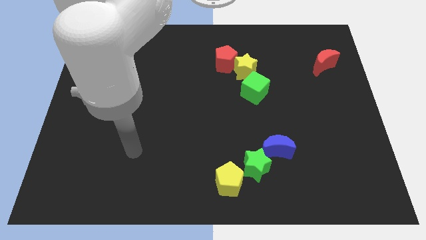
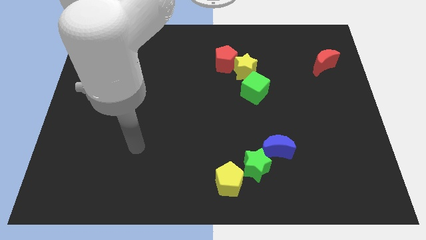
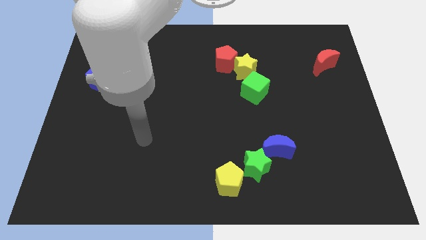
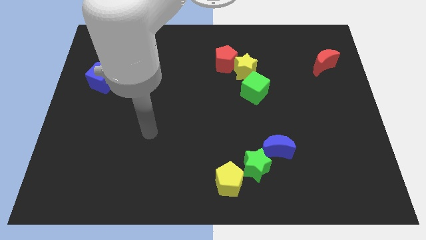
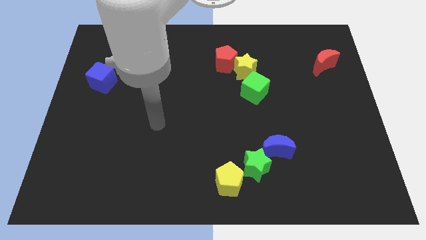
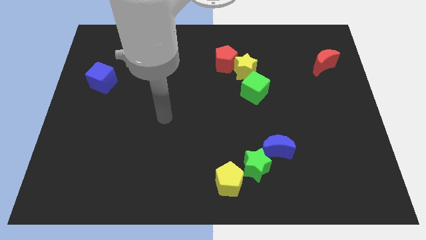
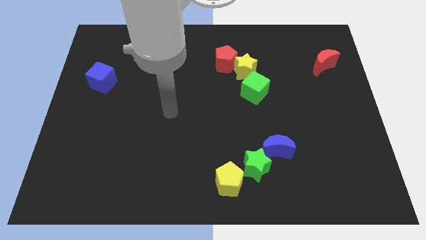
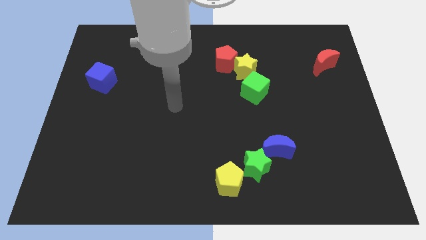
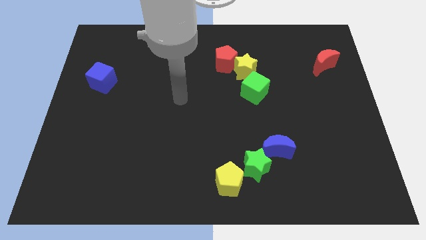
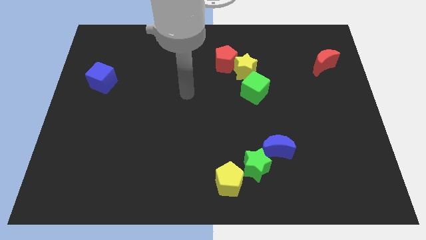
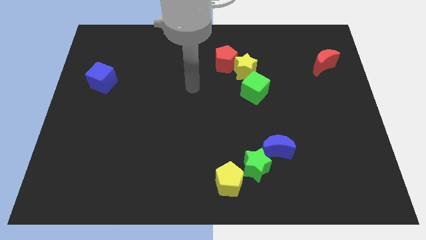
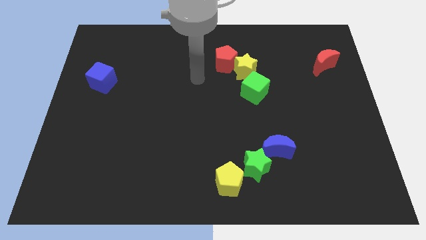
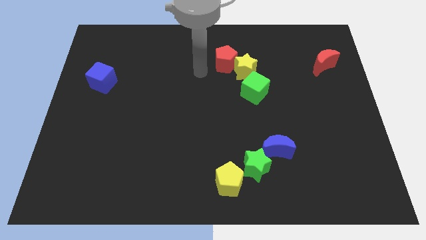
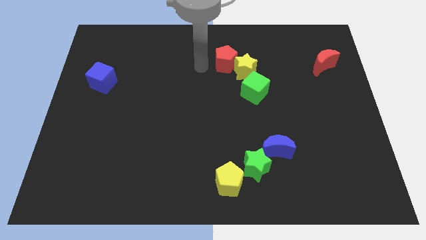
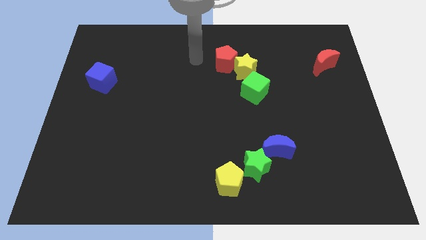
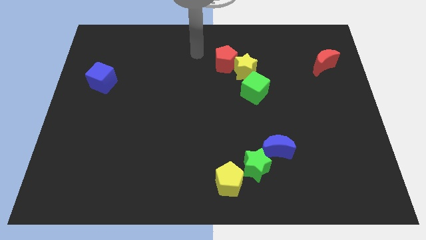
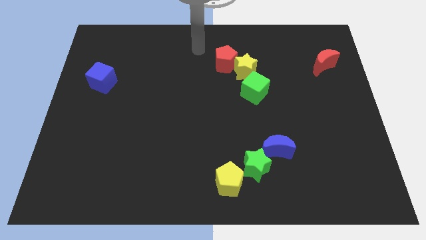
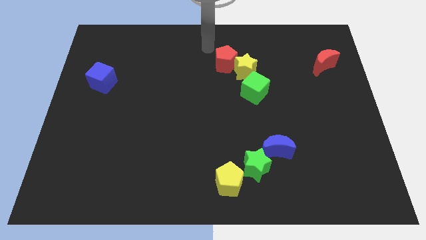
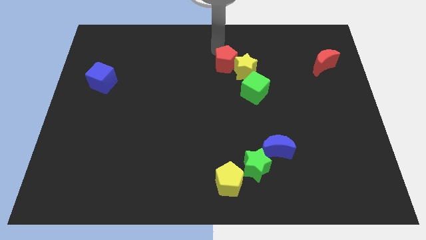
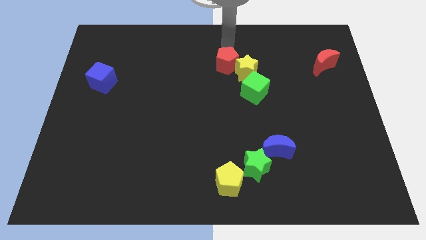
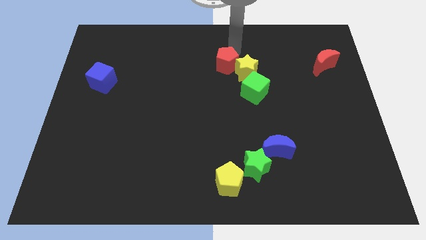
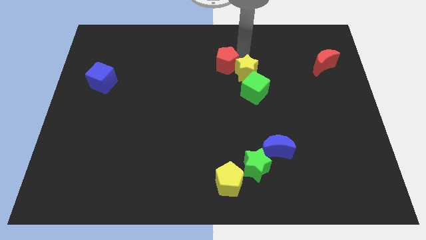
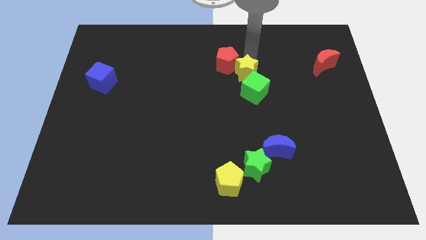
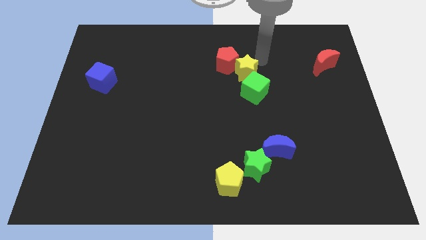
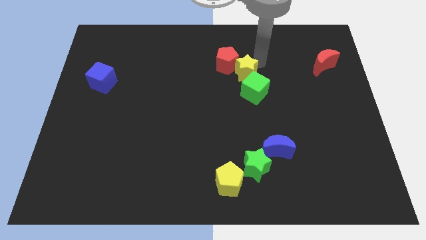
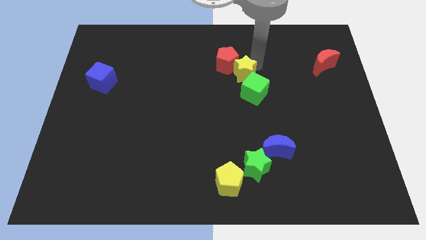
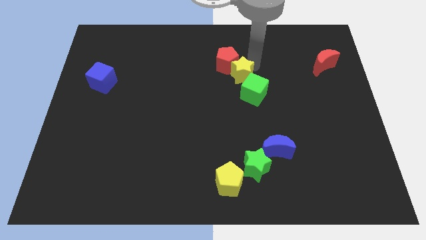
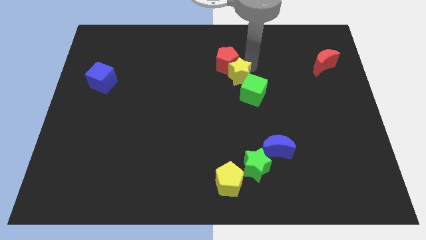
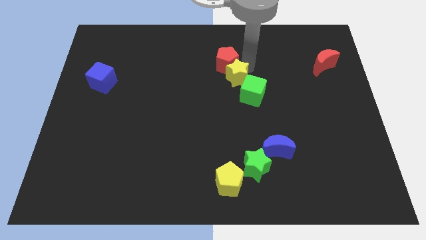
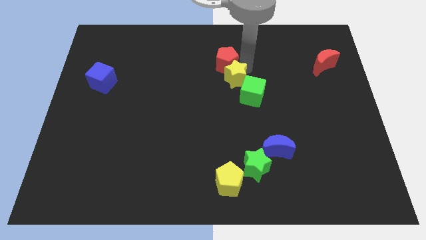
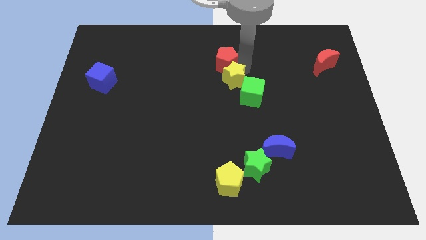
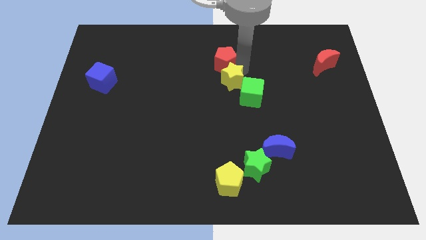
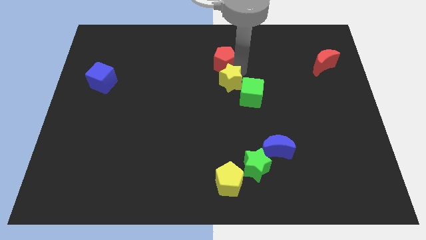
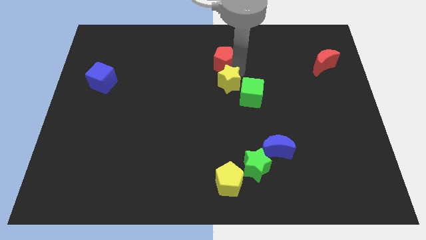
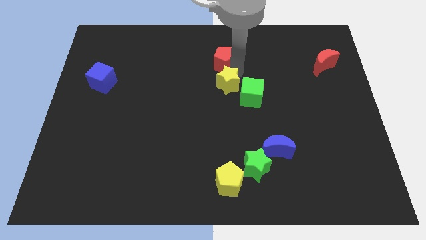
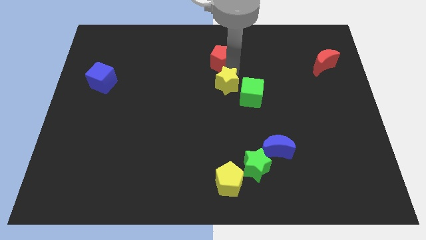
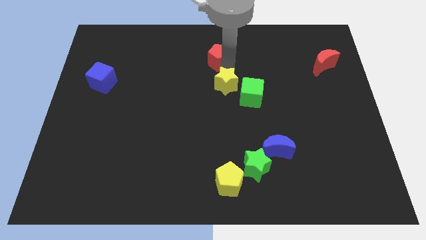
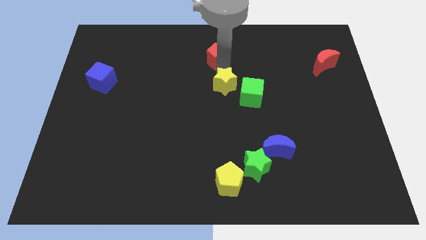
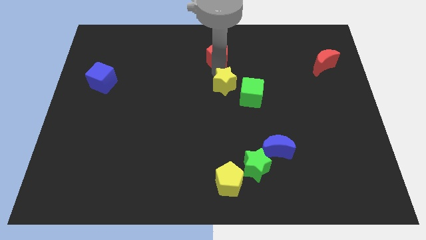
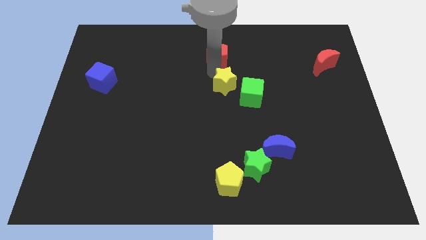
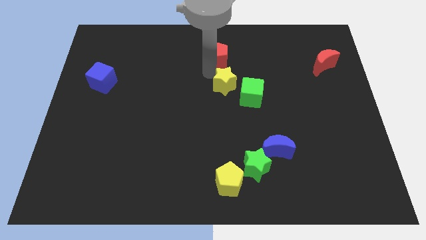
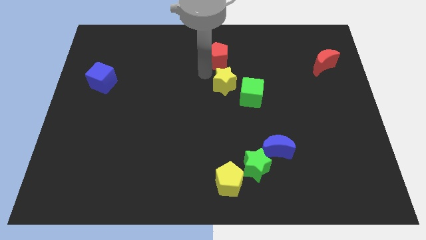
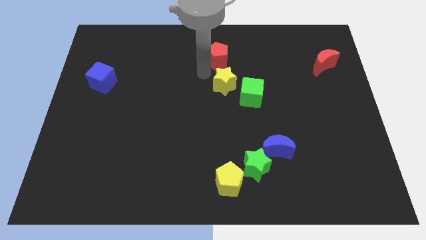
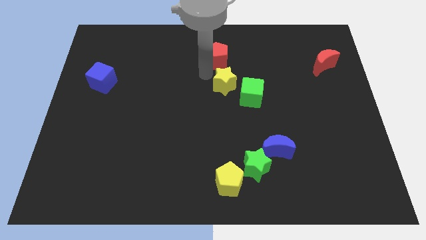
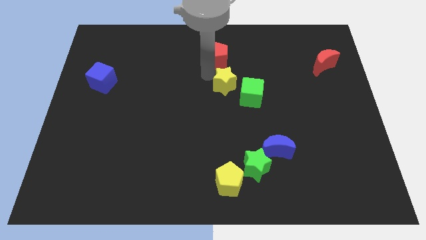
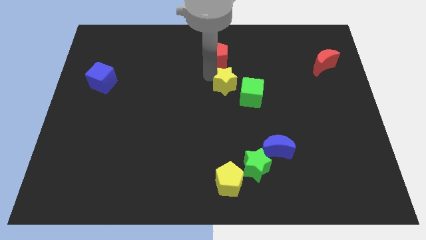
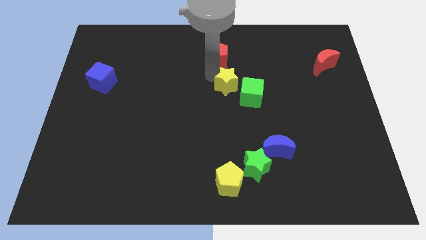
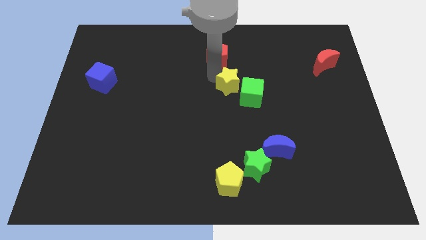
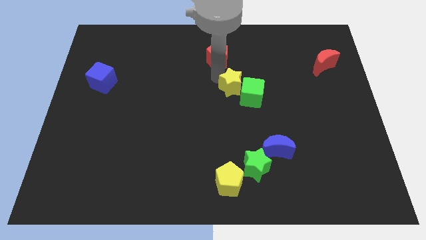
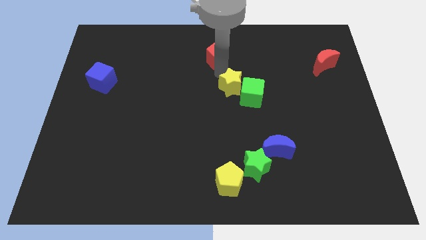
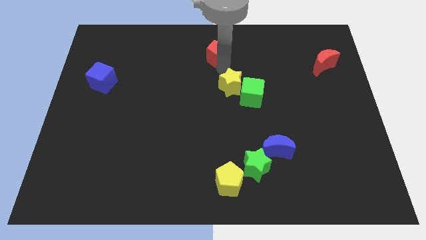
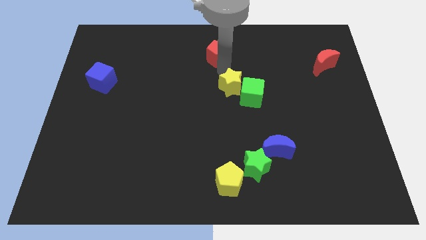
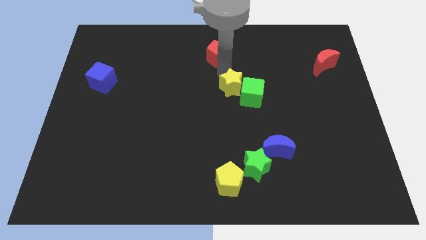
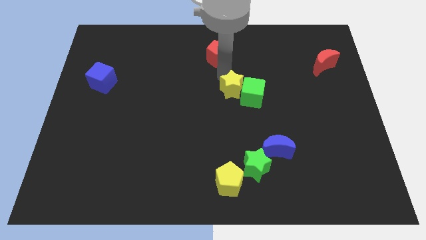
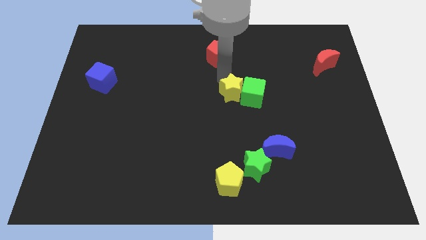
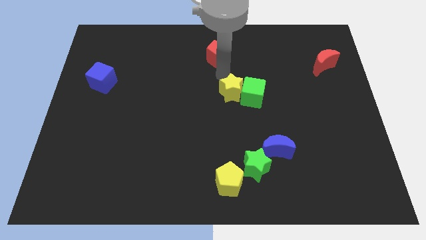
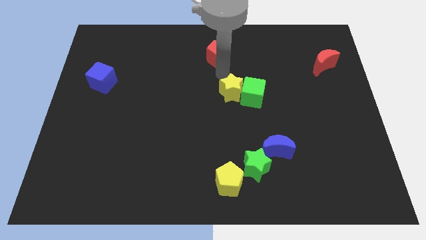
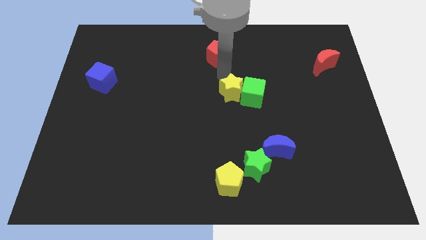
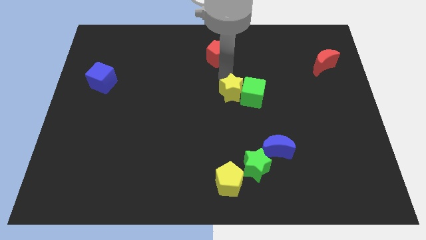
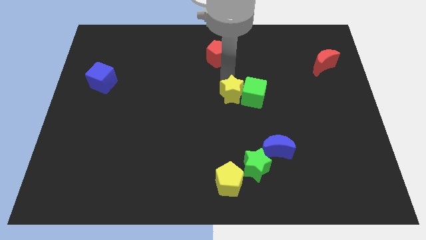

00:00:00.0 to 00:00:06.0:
move the yellow star downwards a little

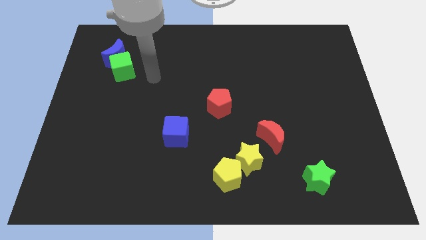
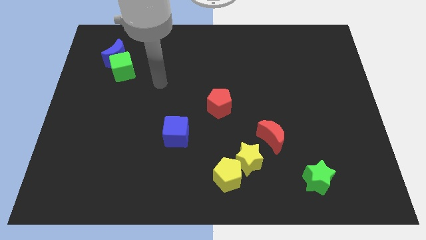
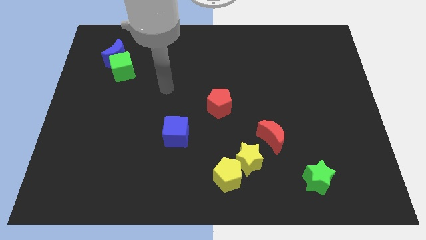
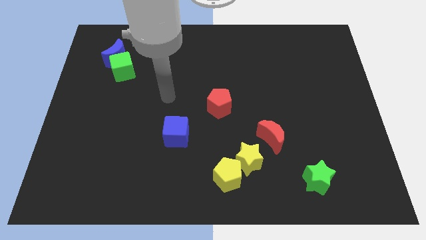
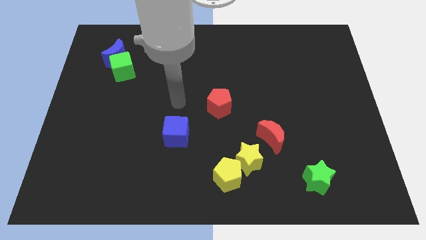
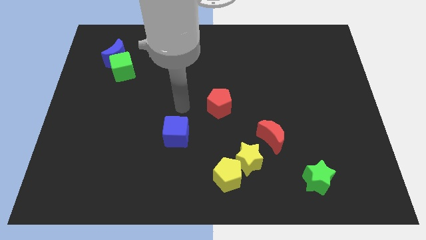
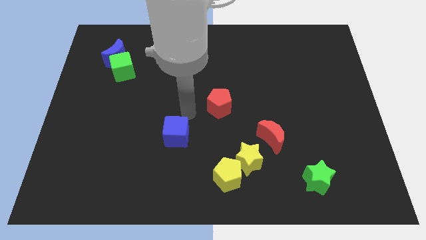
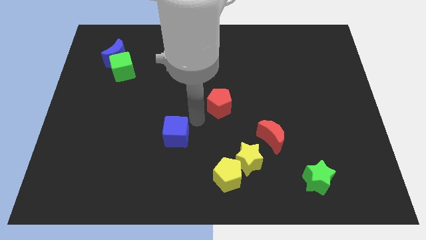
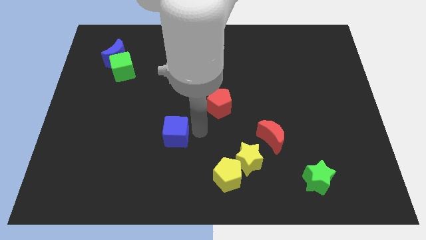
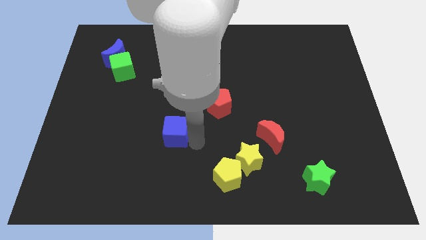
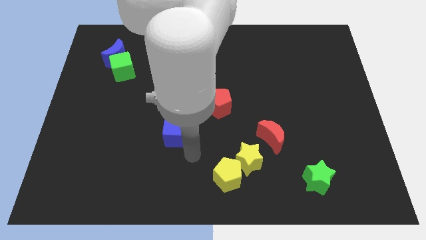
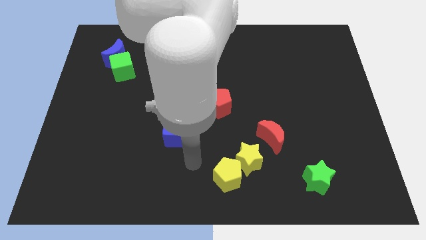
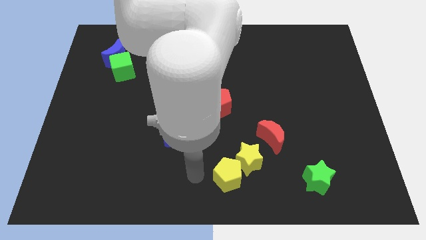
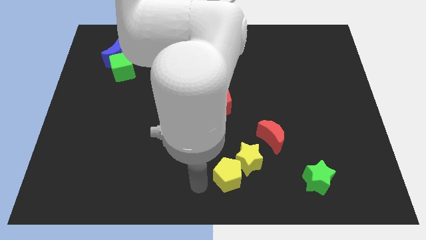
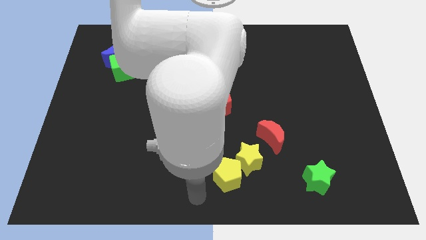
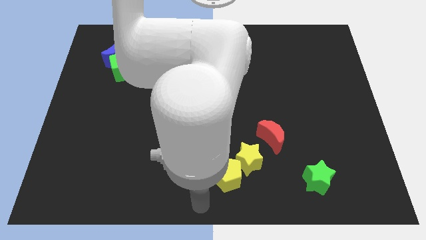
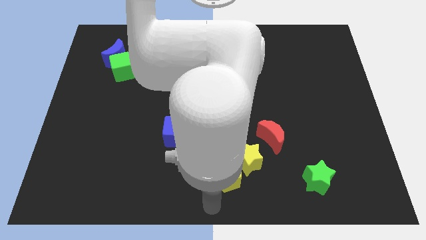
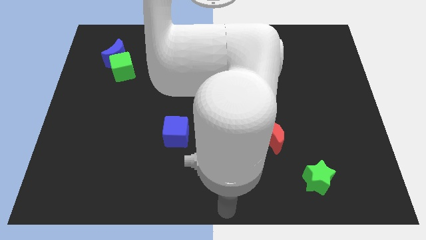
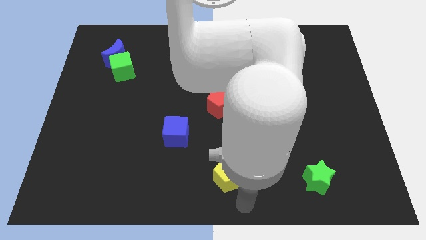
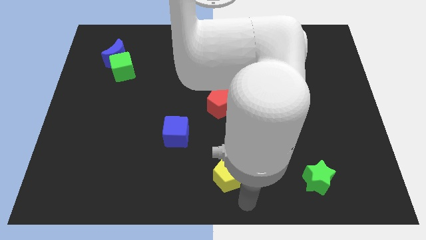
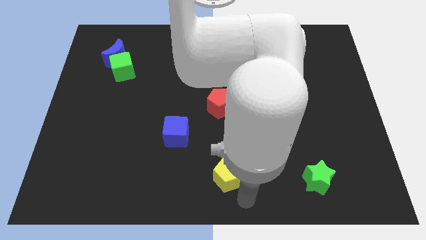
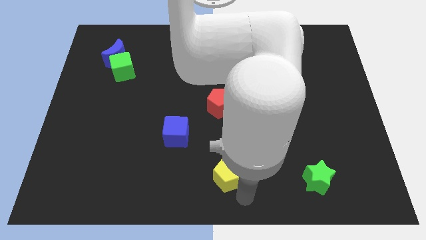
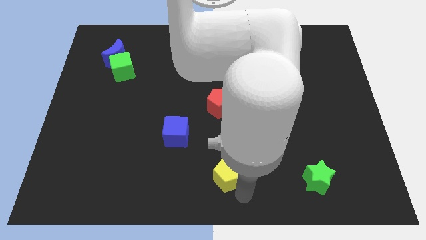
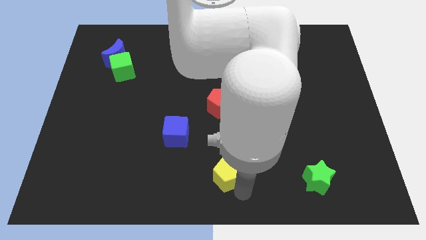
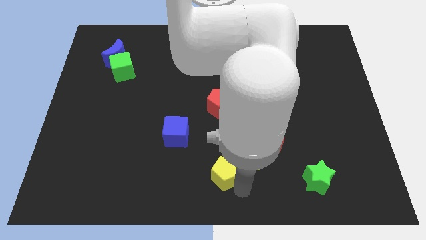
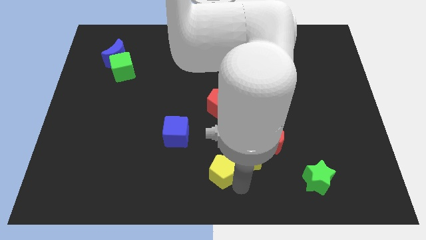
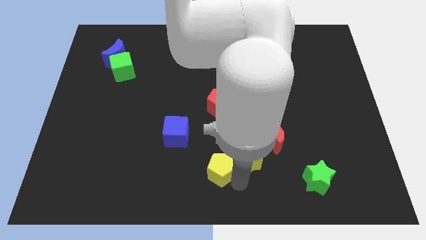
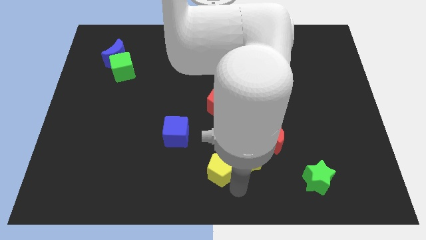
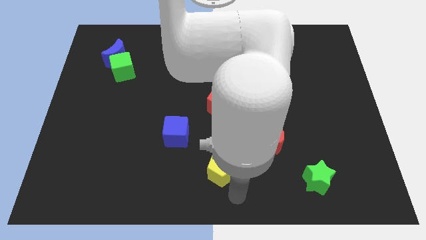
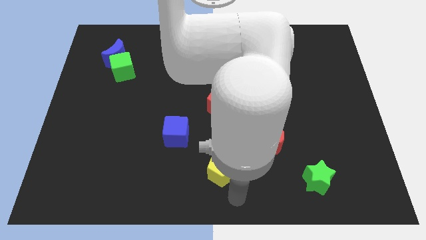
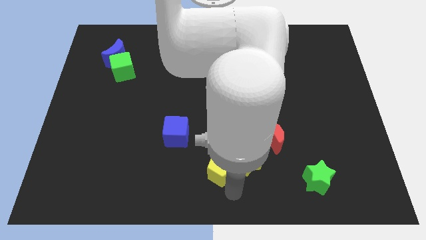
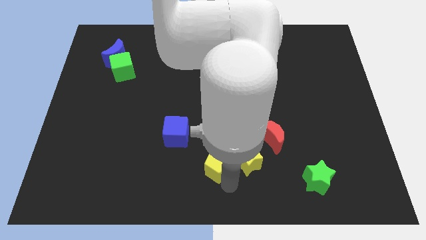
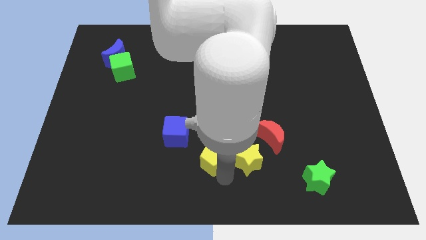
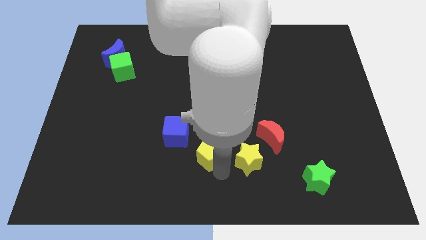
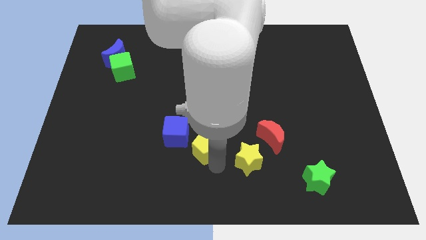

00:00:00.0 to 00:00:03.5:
move the yellow pentagon a little up and then left
